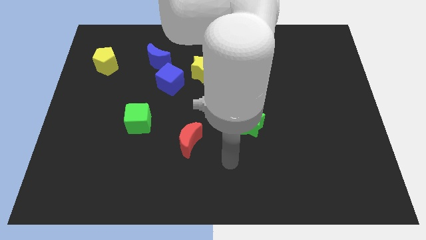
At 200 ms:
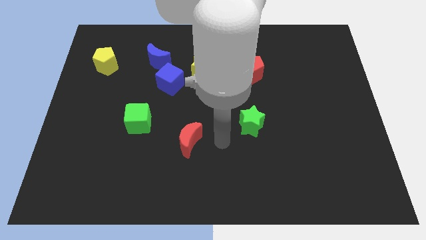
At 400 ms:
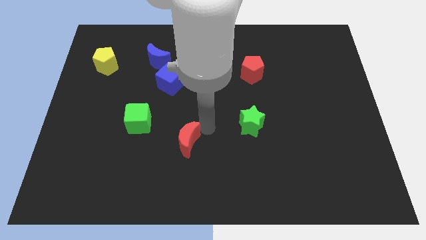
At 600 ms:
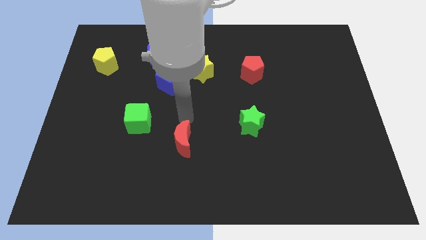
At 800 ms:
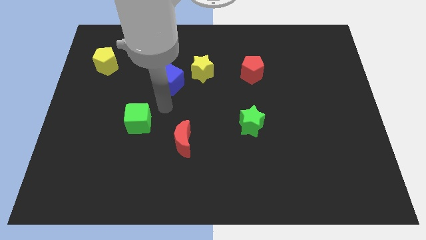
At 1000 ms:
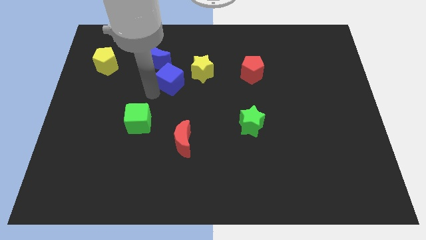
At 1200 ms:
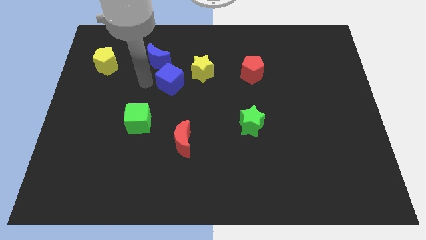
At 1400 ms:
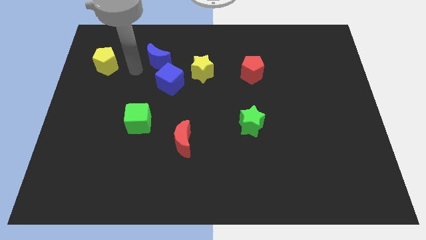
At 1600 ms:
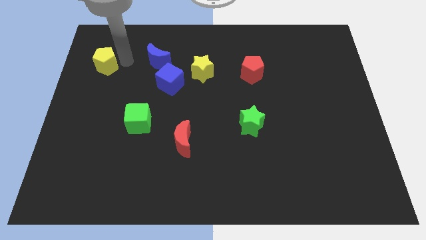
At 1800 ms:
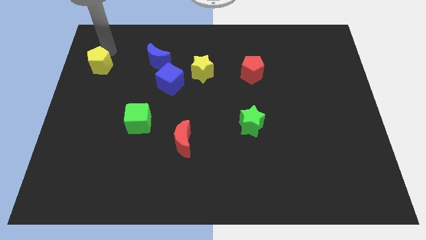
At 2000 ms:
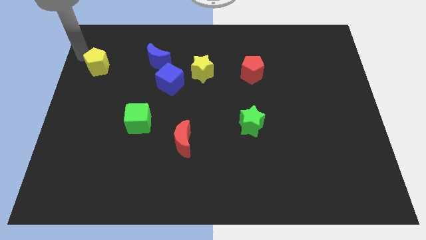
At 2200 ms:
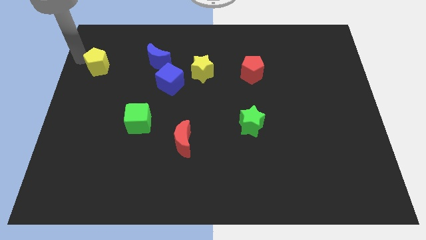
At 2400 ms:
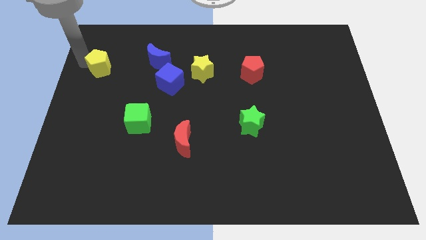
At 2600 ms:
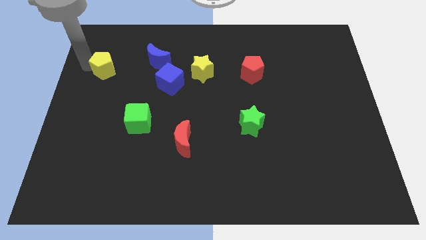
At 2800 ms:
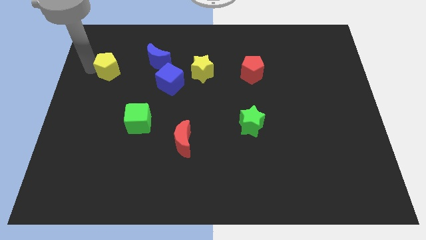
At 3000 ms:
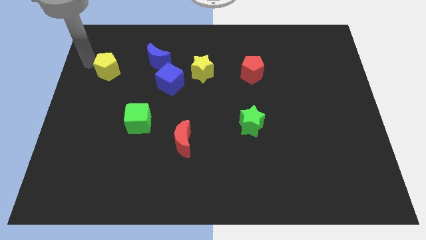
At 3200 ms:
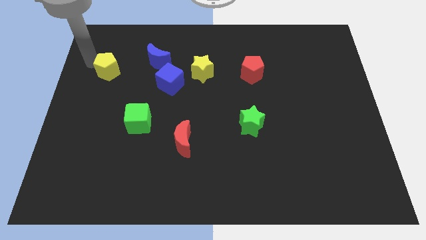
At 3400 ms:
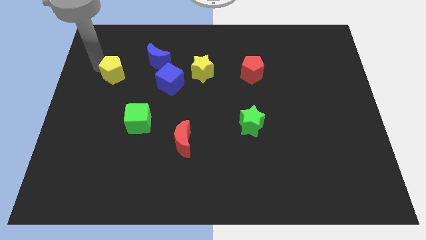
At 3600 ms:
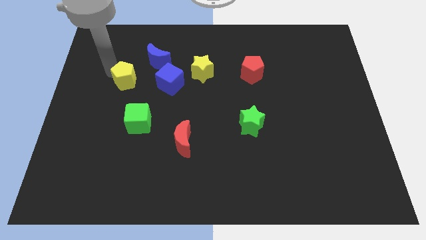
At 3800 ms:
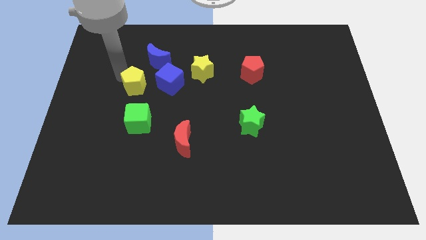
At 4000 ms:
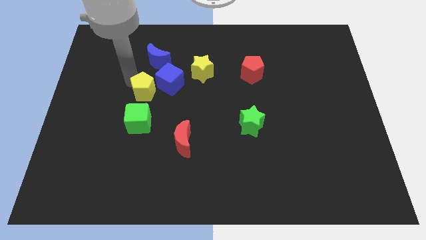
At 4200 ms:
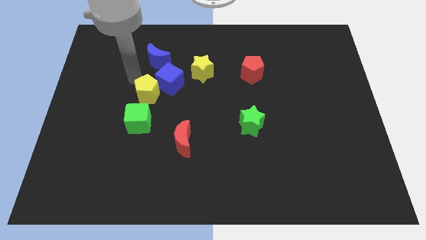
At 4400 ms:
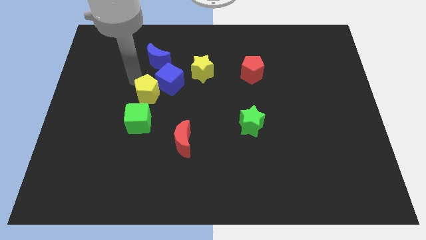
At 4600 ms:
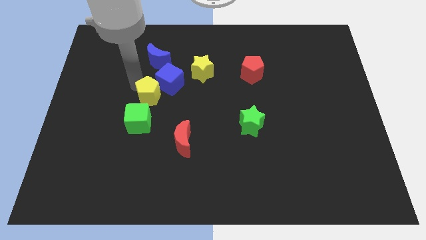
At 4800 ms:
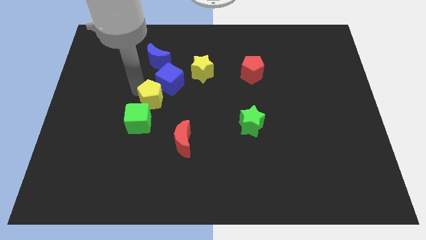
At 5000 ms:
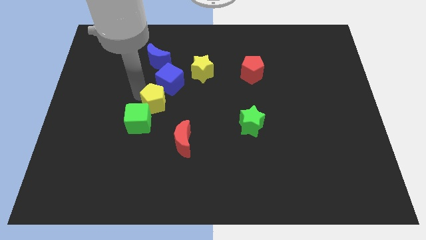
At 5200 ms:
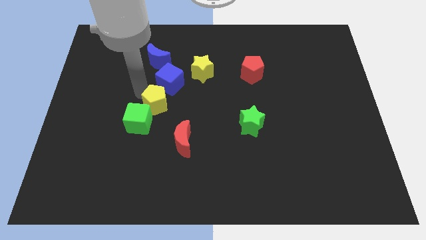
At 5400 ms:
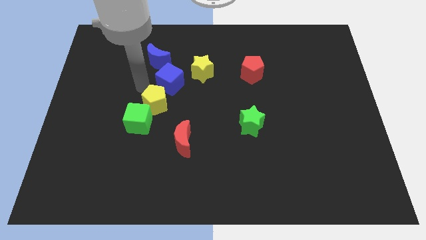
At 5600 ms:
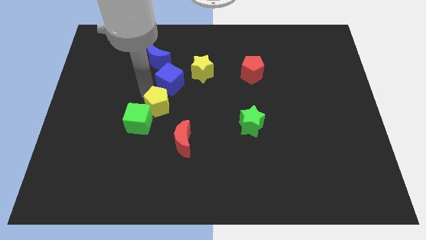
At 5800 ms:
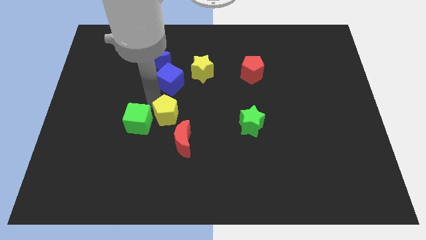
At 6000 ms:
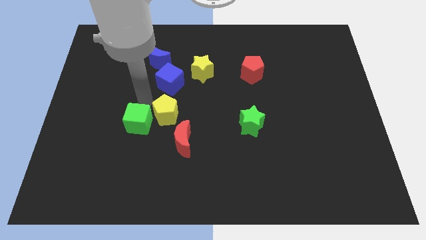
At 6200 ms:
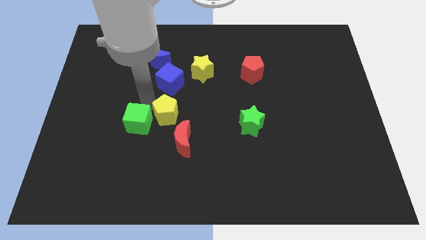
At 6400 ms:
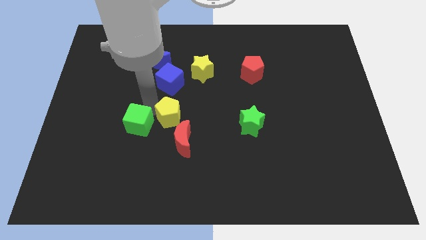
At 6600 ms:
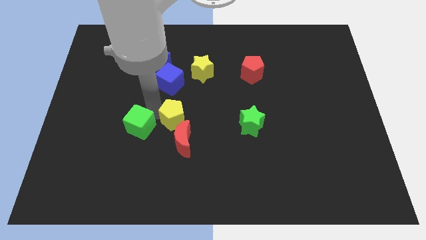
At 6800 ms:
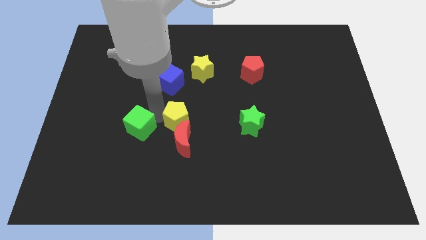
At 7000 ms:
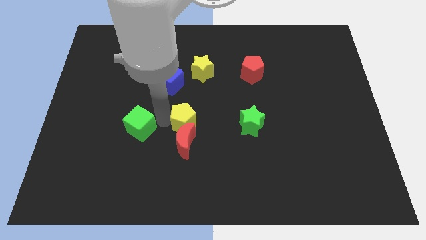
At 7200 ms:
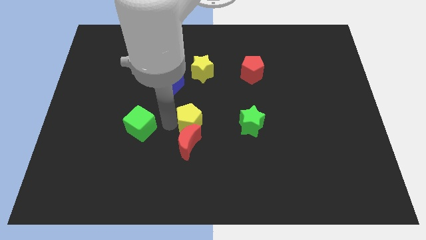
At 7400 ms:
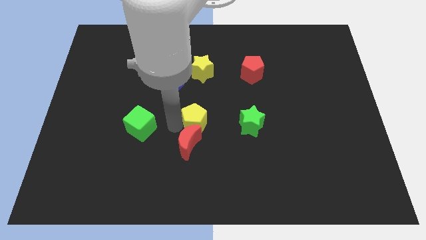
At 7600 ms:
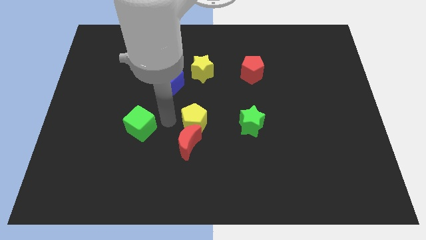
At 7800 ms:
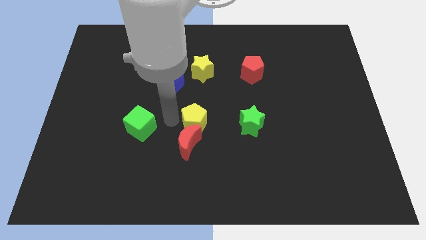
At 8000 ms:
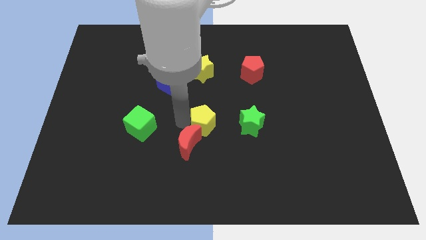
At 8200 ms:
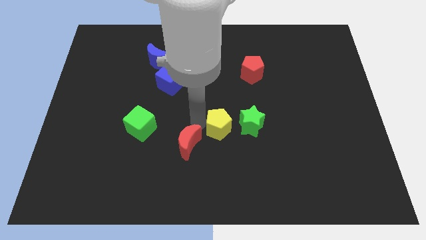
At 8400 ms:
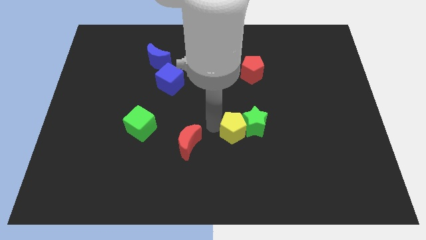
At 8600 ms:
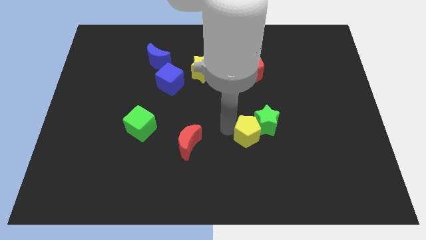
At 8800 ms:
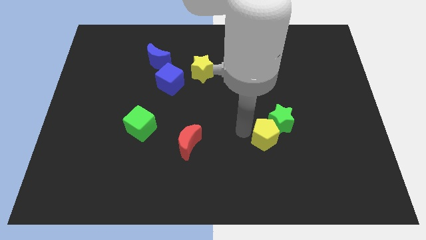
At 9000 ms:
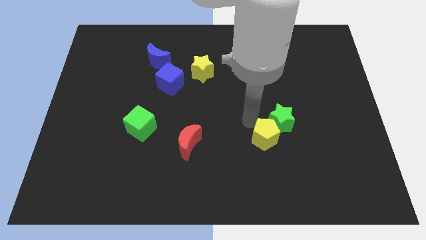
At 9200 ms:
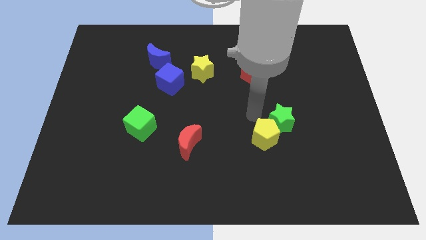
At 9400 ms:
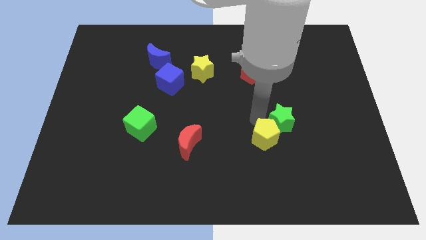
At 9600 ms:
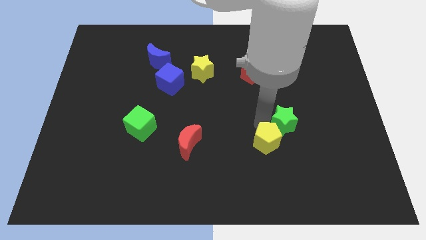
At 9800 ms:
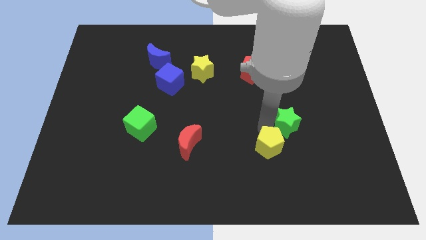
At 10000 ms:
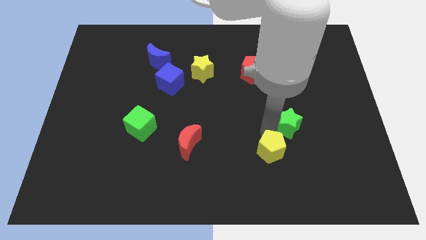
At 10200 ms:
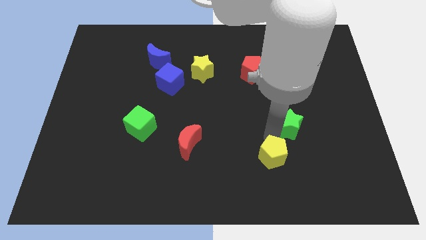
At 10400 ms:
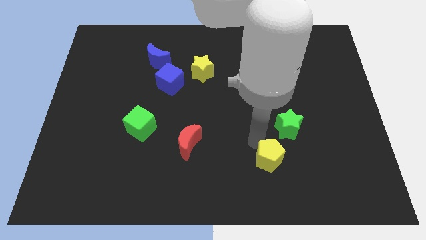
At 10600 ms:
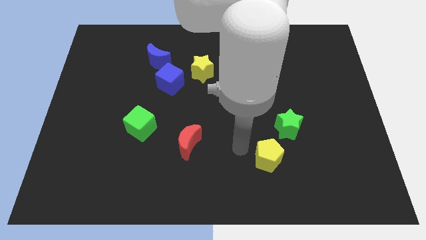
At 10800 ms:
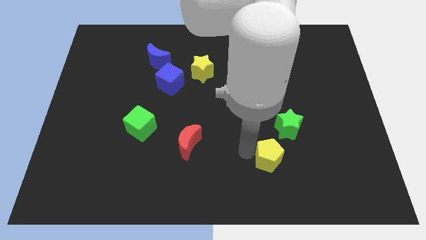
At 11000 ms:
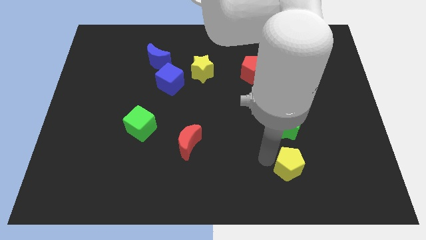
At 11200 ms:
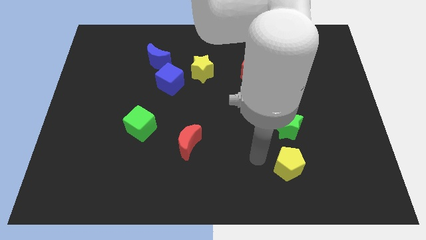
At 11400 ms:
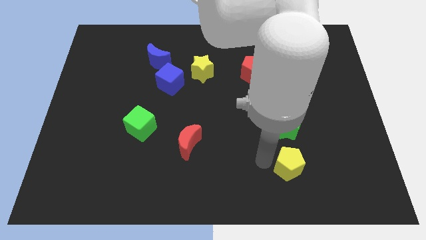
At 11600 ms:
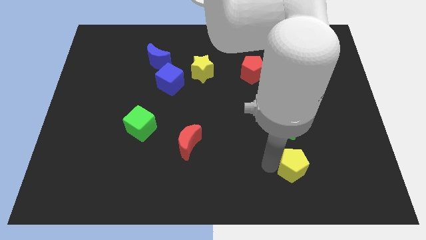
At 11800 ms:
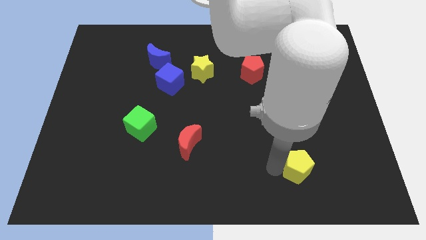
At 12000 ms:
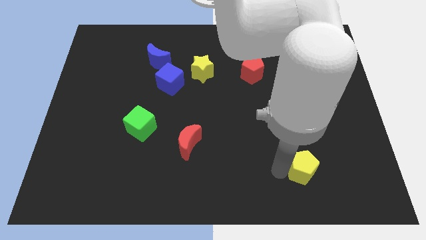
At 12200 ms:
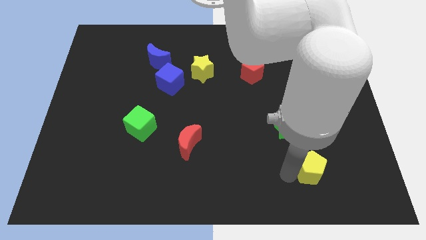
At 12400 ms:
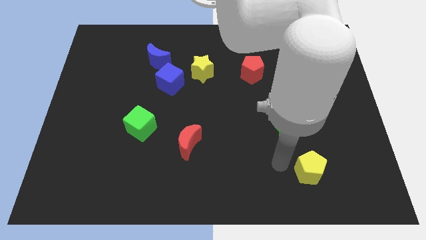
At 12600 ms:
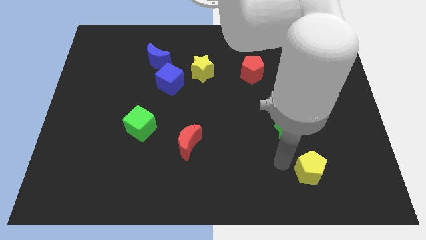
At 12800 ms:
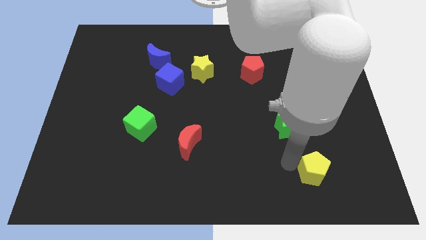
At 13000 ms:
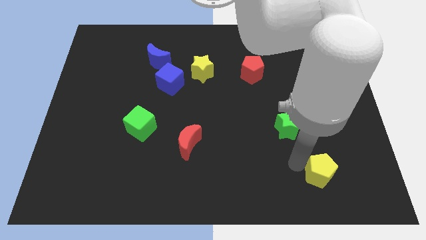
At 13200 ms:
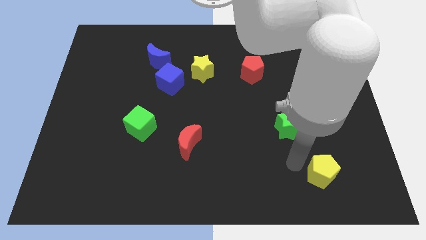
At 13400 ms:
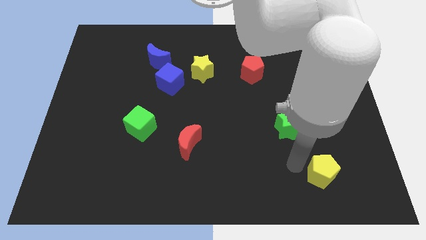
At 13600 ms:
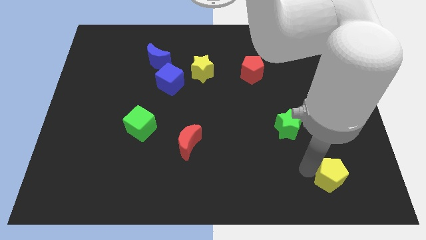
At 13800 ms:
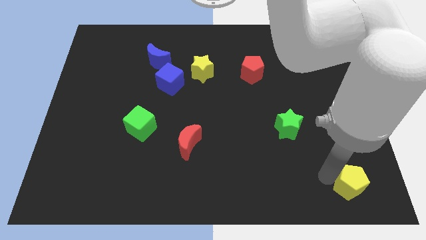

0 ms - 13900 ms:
slide the yellow pentagon to the bottom right of the board
